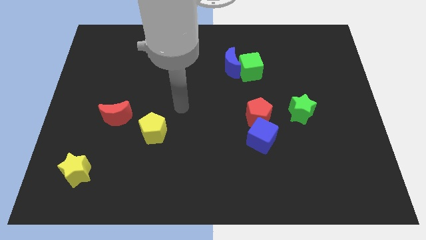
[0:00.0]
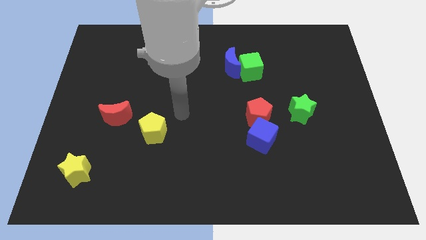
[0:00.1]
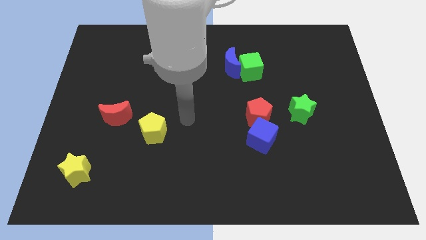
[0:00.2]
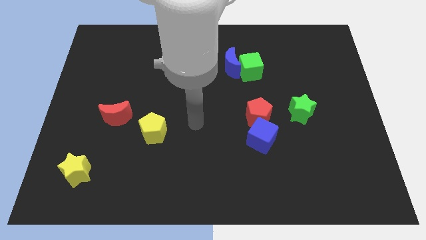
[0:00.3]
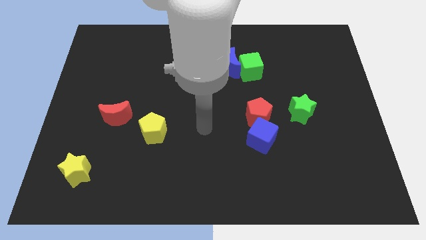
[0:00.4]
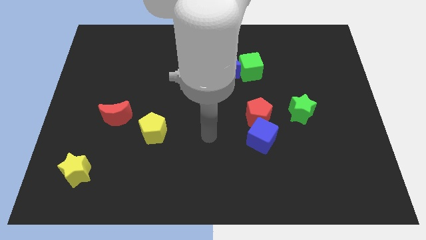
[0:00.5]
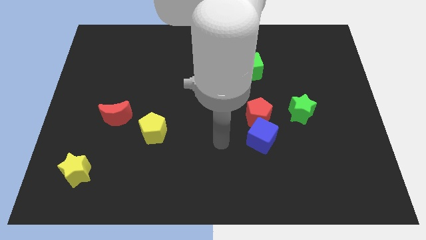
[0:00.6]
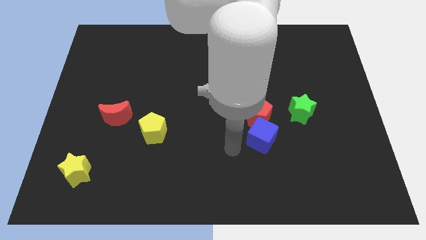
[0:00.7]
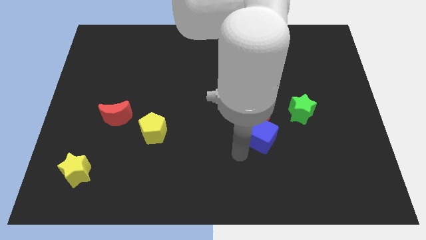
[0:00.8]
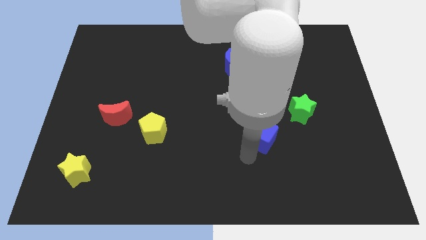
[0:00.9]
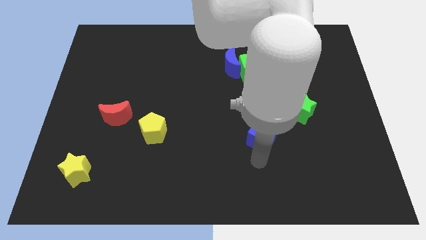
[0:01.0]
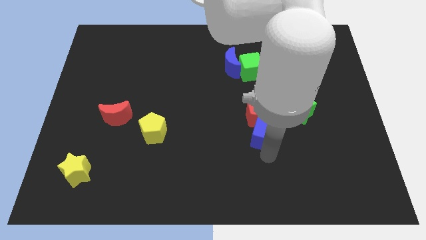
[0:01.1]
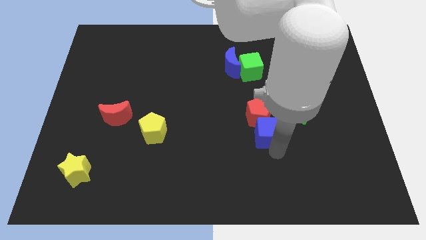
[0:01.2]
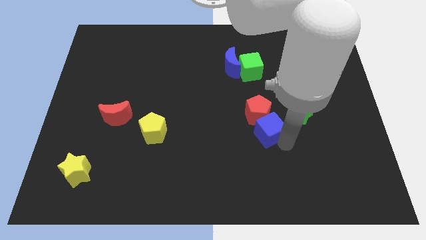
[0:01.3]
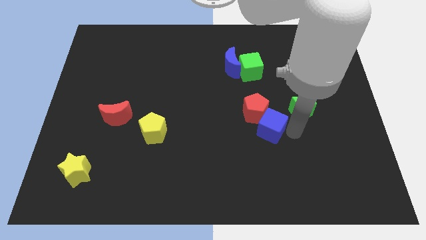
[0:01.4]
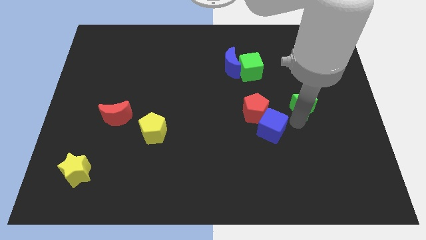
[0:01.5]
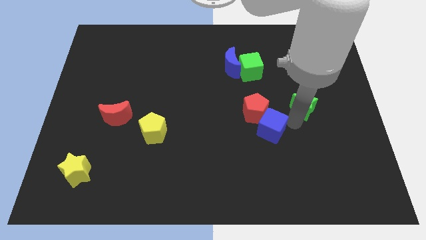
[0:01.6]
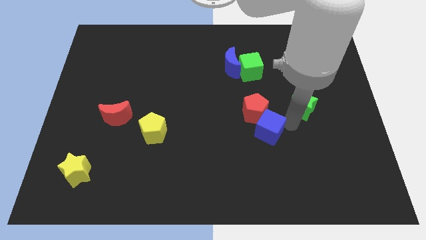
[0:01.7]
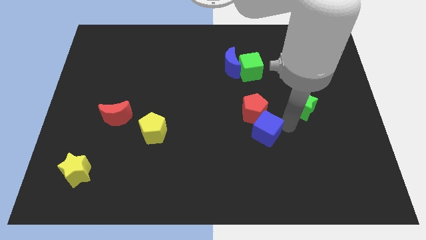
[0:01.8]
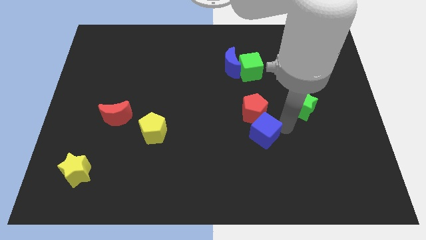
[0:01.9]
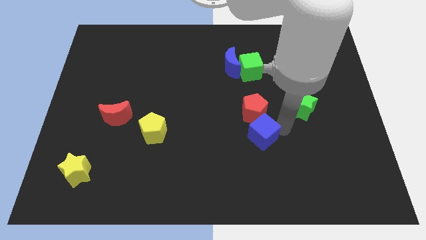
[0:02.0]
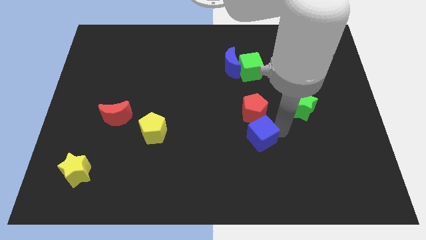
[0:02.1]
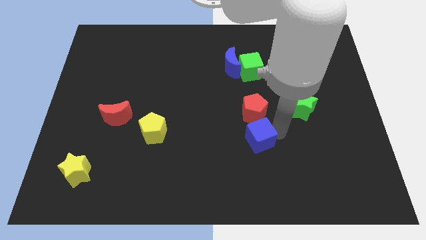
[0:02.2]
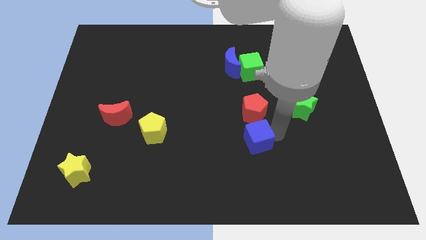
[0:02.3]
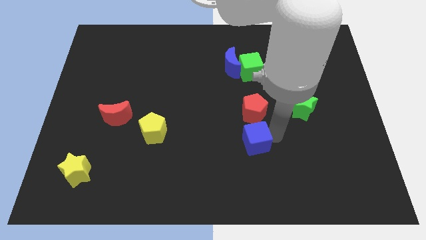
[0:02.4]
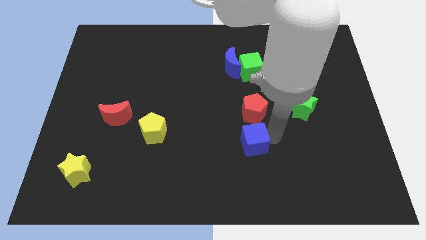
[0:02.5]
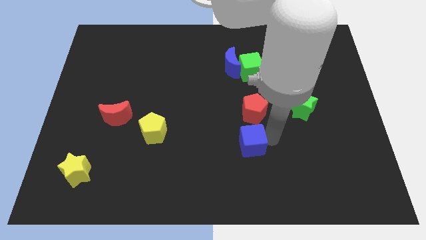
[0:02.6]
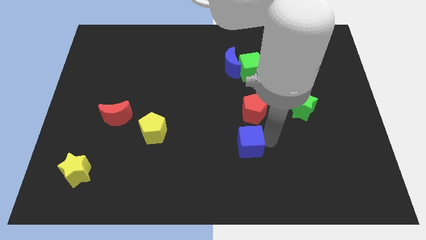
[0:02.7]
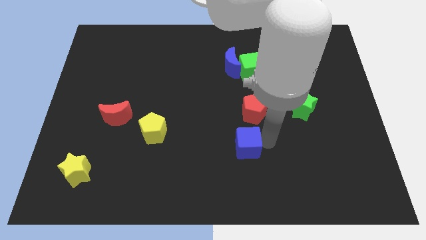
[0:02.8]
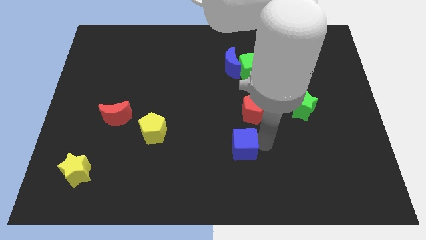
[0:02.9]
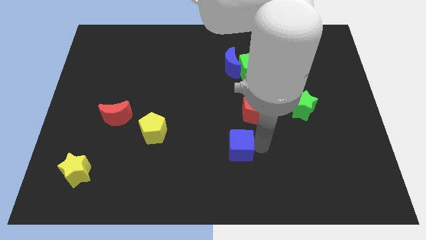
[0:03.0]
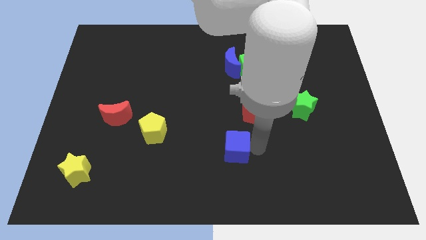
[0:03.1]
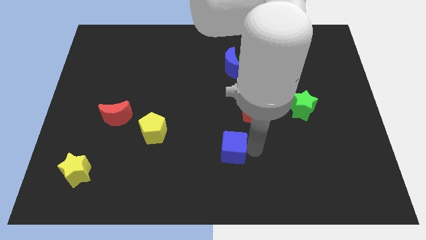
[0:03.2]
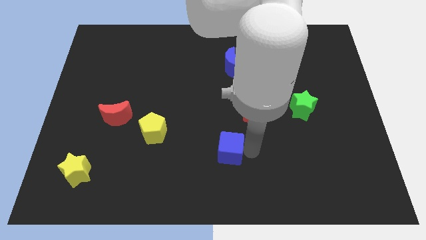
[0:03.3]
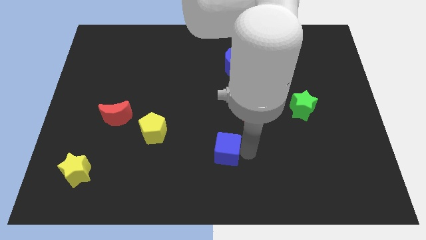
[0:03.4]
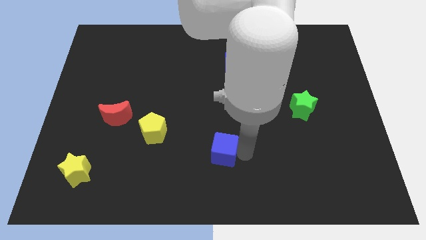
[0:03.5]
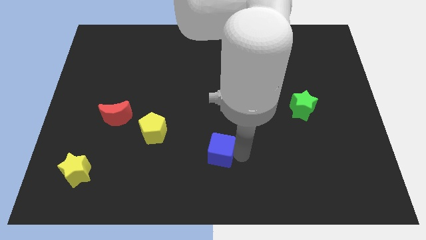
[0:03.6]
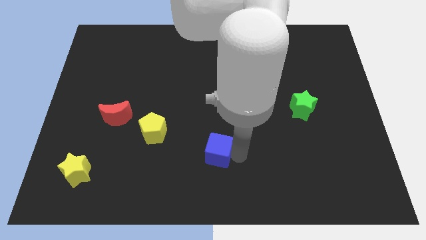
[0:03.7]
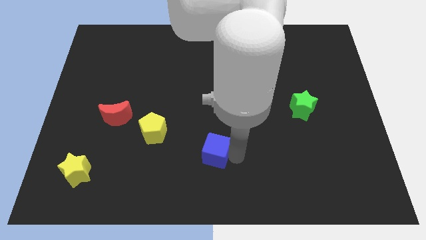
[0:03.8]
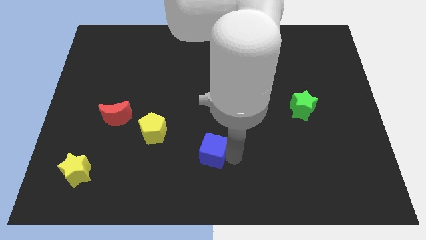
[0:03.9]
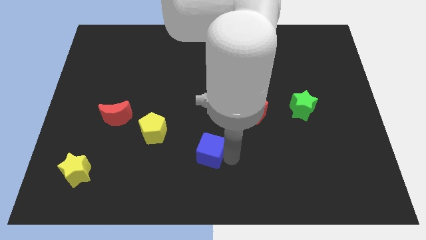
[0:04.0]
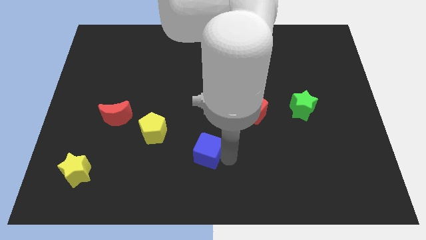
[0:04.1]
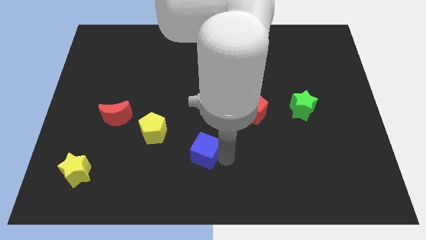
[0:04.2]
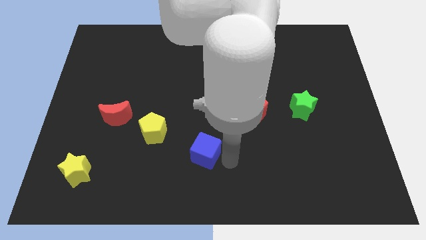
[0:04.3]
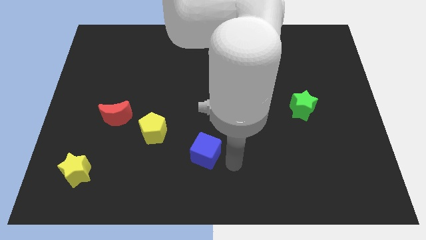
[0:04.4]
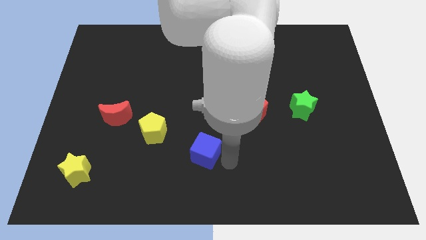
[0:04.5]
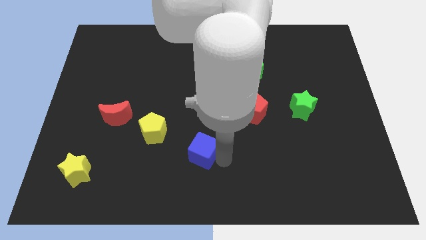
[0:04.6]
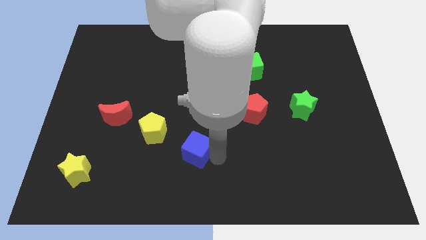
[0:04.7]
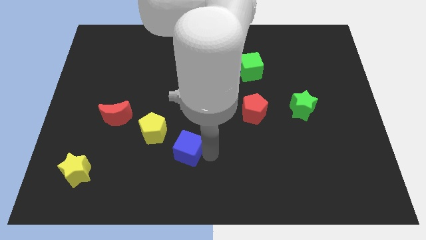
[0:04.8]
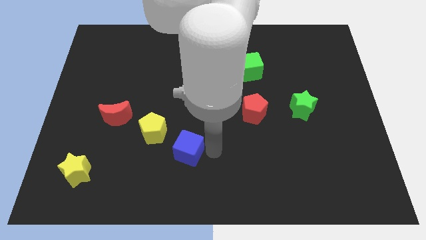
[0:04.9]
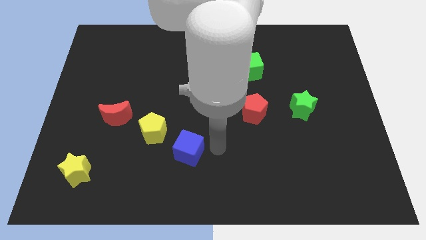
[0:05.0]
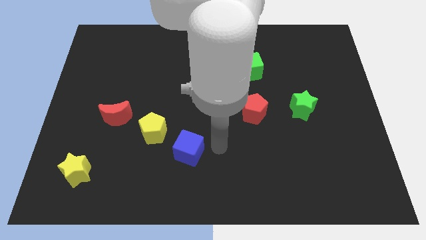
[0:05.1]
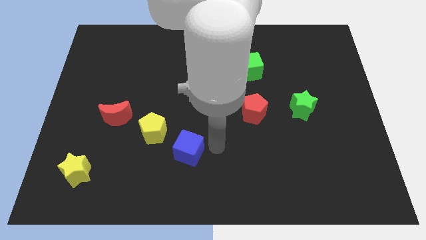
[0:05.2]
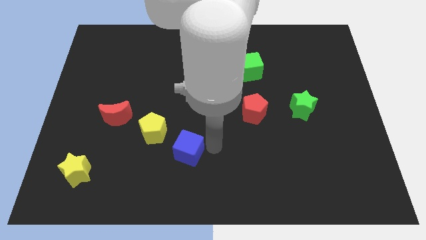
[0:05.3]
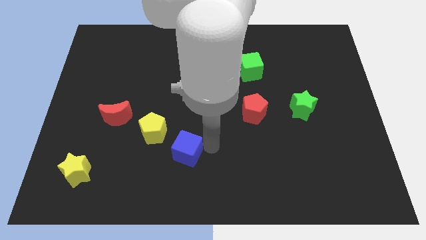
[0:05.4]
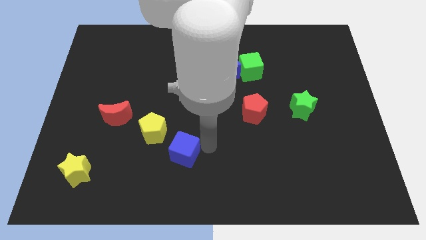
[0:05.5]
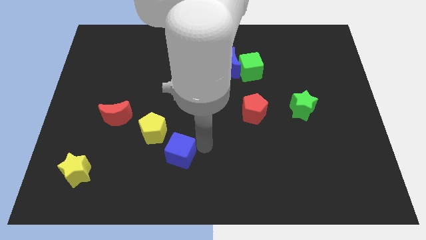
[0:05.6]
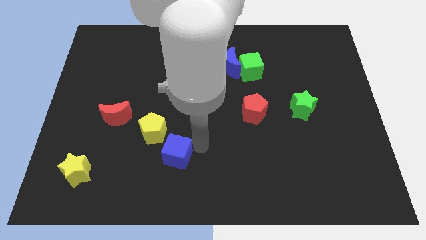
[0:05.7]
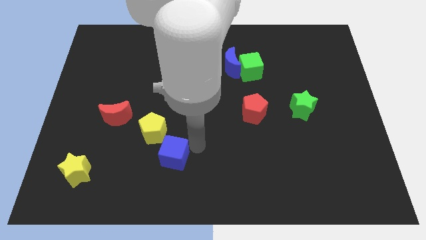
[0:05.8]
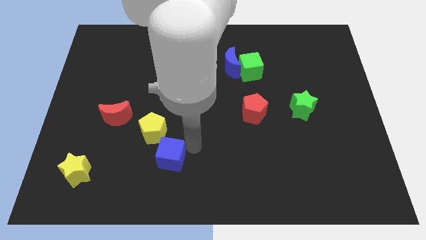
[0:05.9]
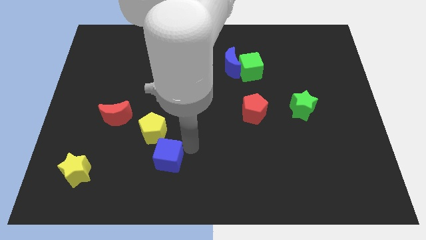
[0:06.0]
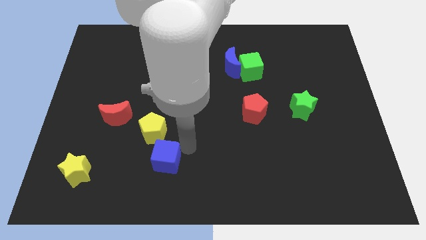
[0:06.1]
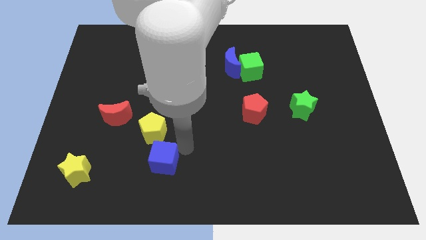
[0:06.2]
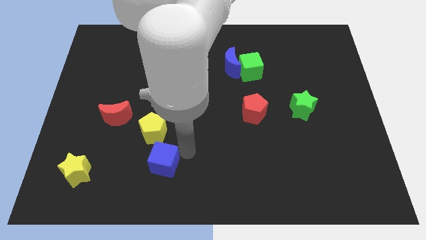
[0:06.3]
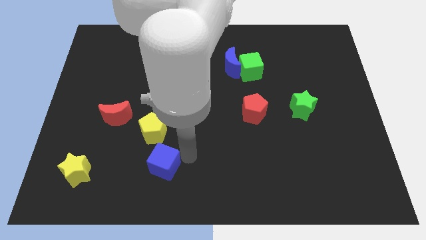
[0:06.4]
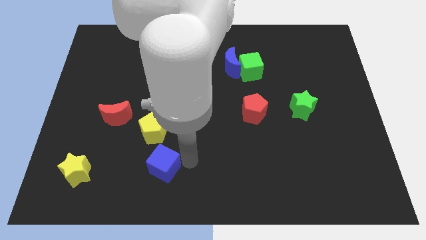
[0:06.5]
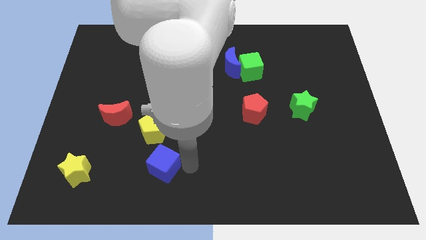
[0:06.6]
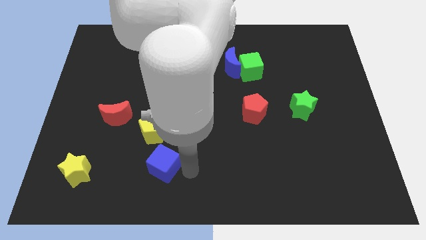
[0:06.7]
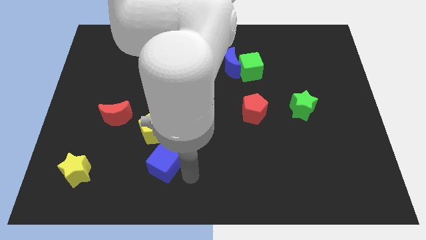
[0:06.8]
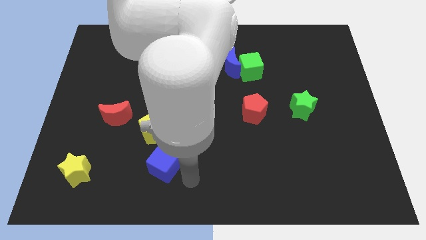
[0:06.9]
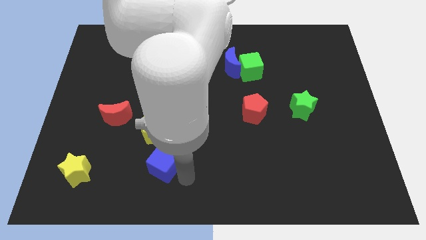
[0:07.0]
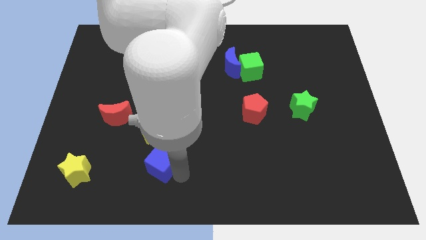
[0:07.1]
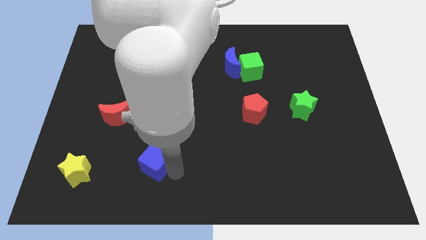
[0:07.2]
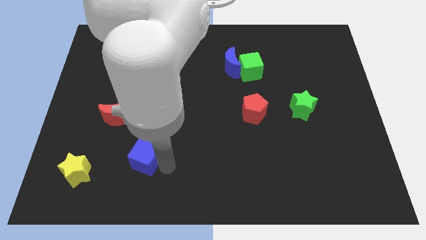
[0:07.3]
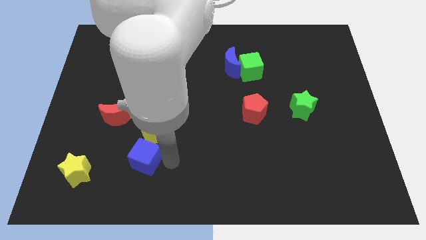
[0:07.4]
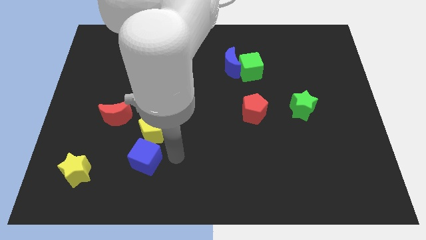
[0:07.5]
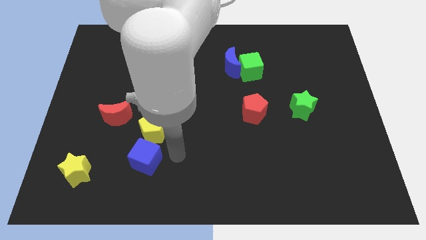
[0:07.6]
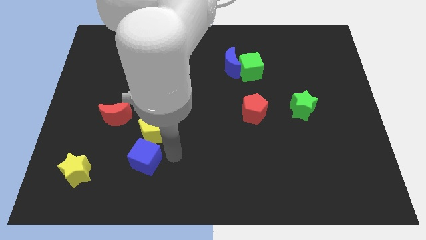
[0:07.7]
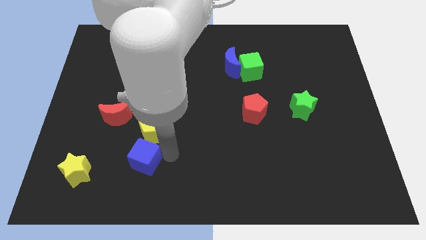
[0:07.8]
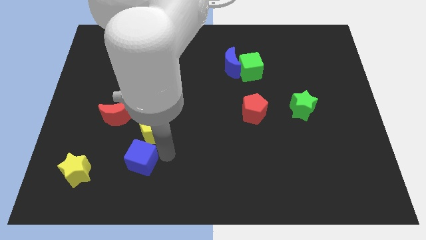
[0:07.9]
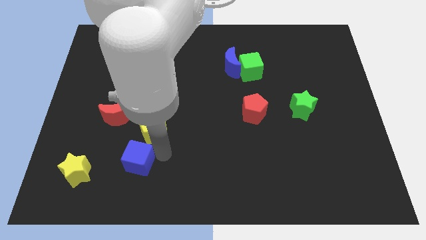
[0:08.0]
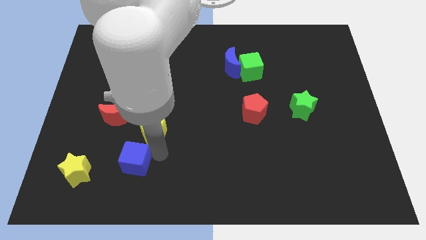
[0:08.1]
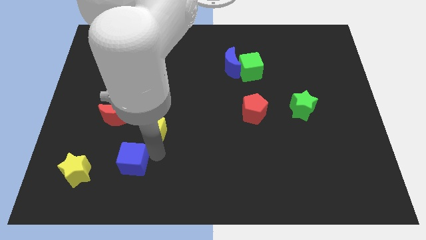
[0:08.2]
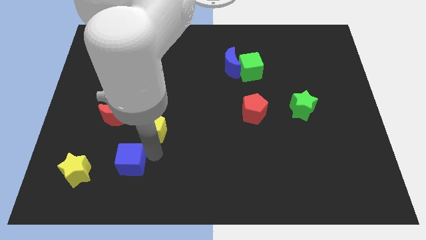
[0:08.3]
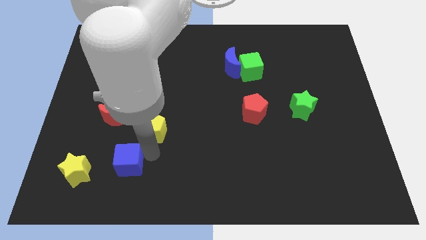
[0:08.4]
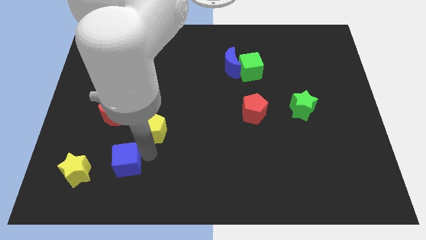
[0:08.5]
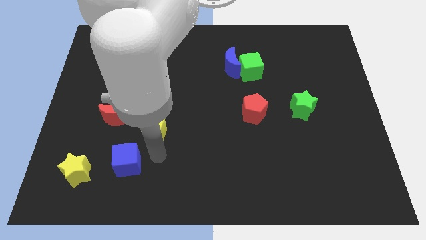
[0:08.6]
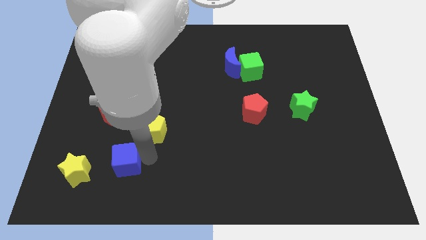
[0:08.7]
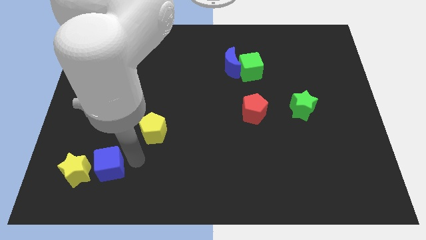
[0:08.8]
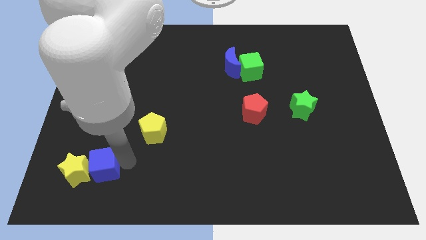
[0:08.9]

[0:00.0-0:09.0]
slide the blue cube towards the yellow star
